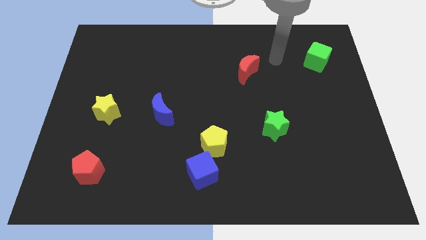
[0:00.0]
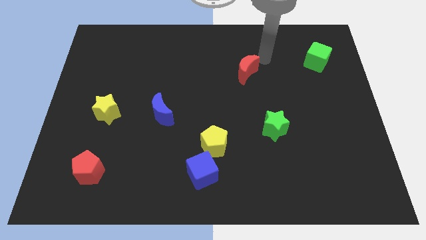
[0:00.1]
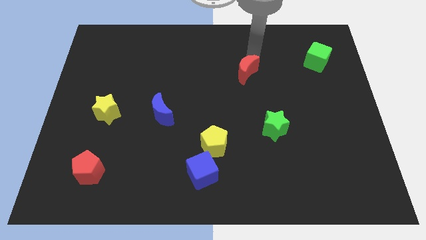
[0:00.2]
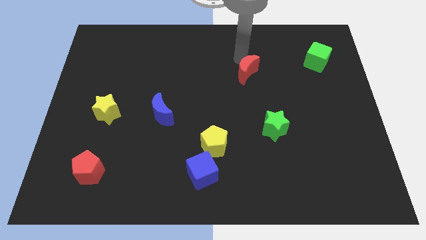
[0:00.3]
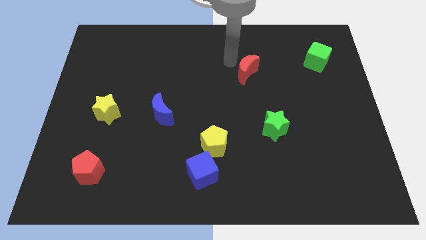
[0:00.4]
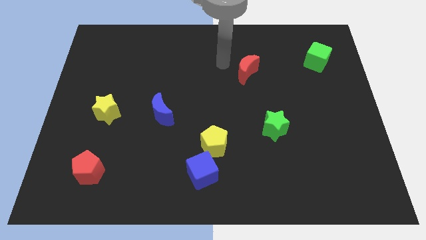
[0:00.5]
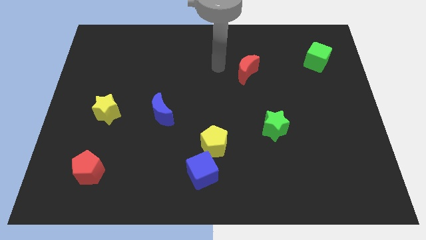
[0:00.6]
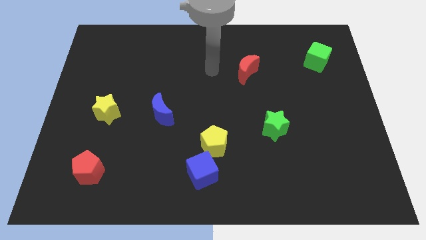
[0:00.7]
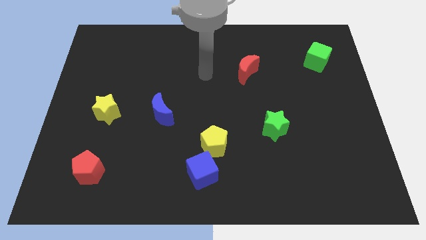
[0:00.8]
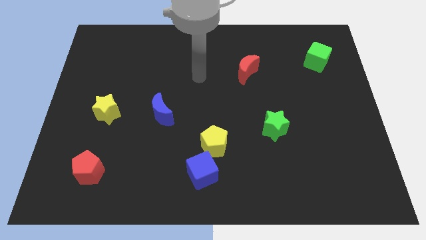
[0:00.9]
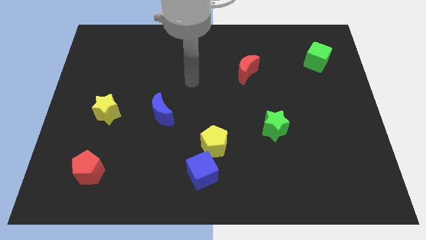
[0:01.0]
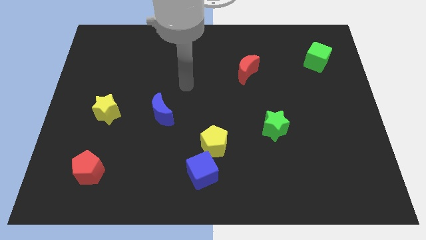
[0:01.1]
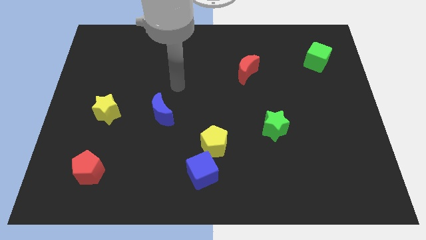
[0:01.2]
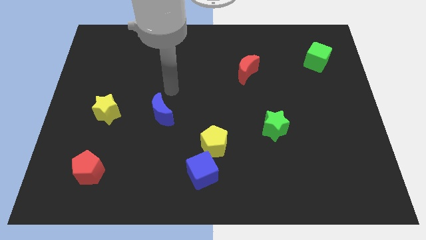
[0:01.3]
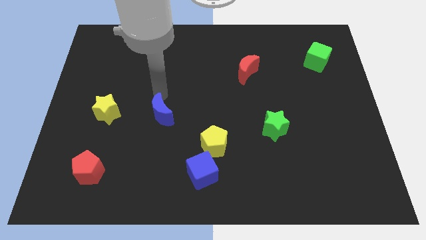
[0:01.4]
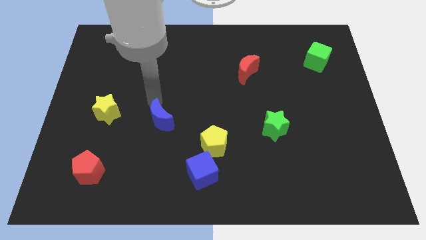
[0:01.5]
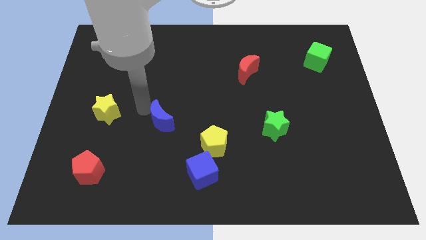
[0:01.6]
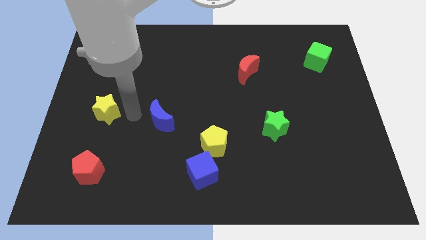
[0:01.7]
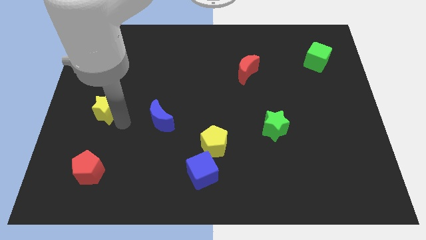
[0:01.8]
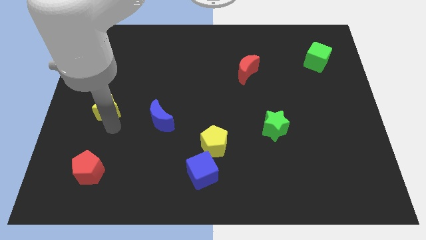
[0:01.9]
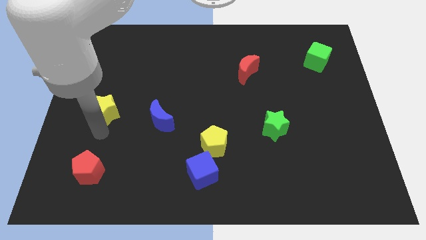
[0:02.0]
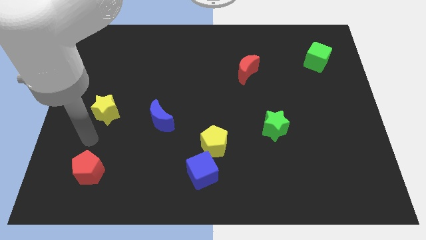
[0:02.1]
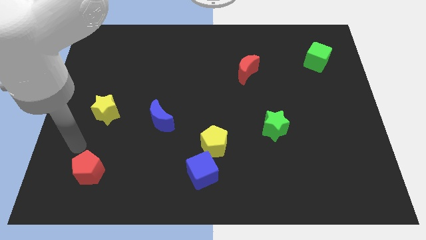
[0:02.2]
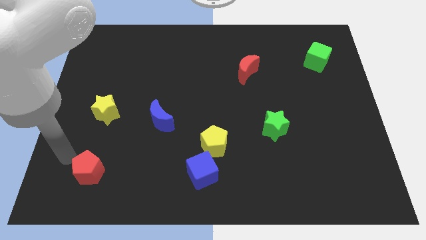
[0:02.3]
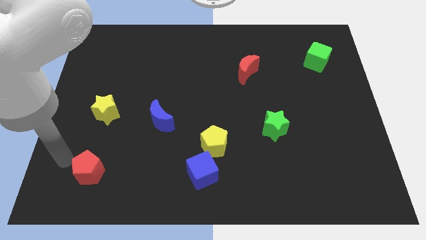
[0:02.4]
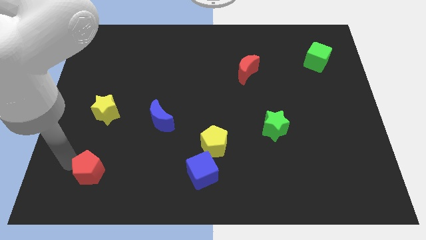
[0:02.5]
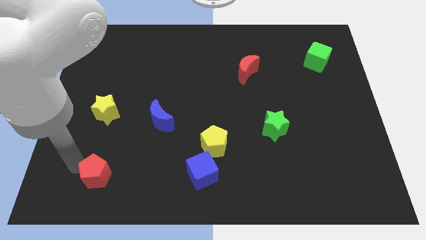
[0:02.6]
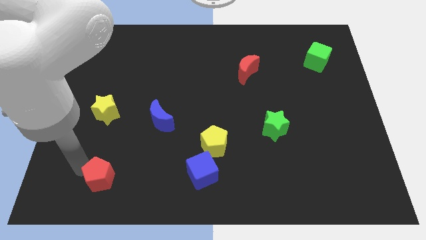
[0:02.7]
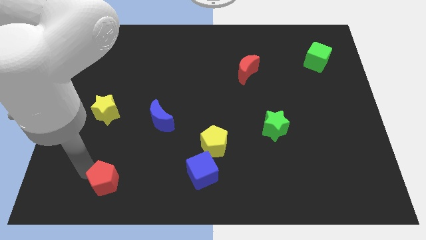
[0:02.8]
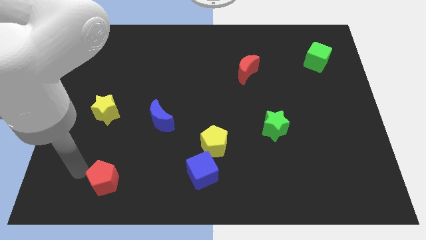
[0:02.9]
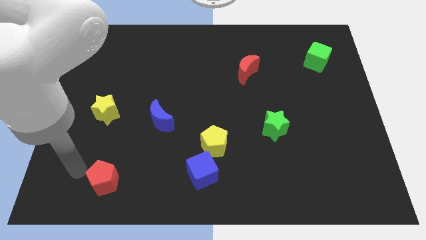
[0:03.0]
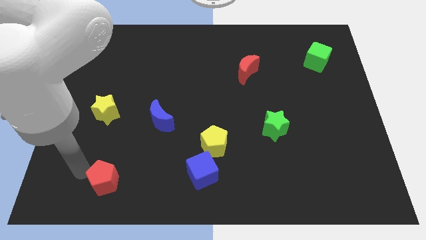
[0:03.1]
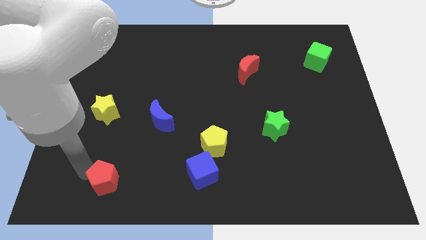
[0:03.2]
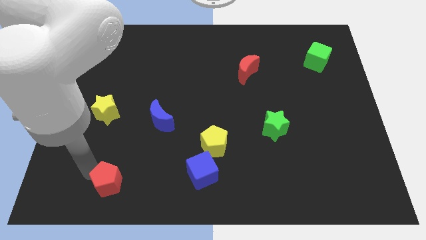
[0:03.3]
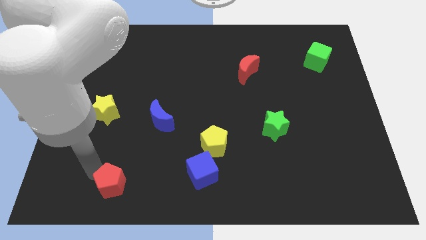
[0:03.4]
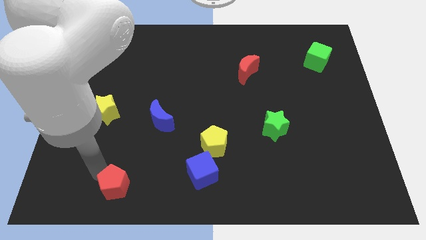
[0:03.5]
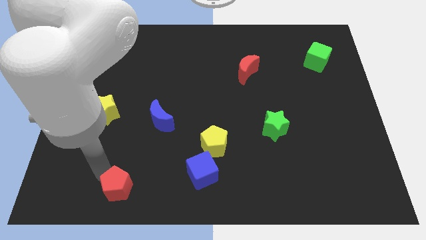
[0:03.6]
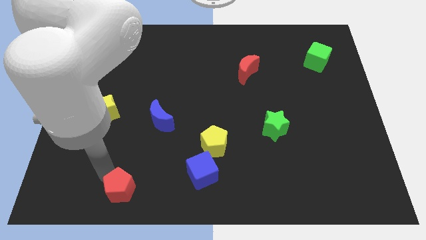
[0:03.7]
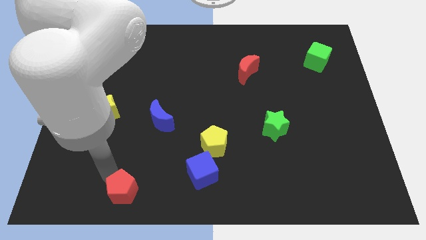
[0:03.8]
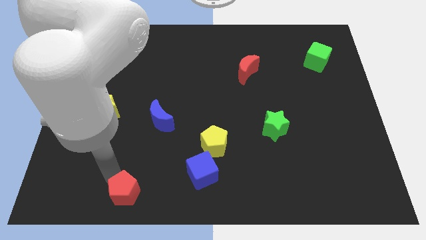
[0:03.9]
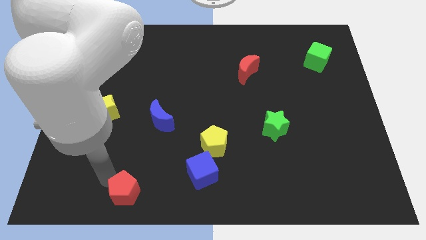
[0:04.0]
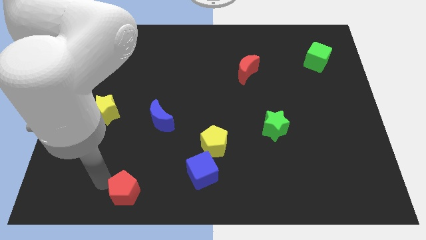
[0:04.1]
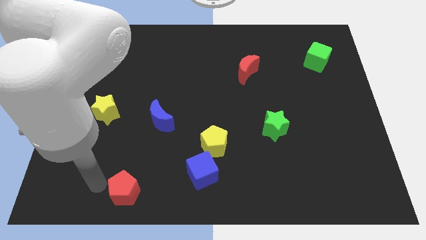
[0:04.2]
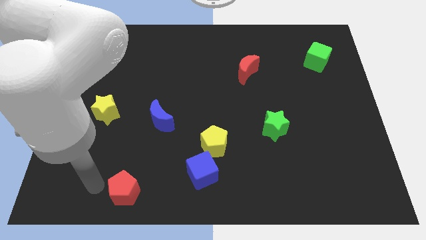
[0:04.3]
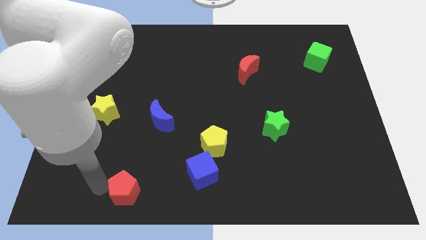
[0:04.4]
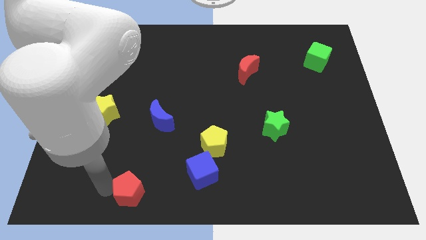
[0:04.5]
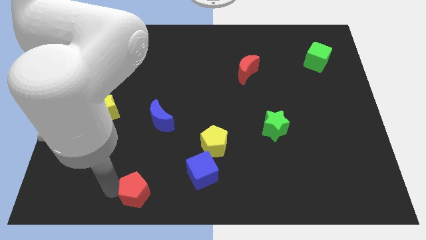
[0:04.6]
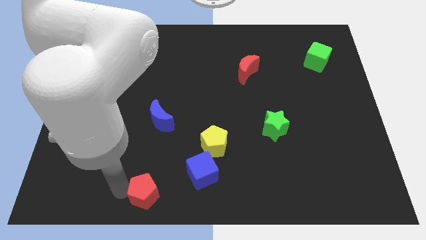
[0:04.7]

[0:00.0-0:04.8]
push the red pentagon to the bottom side

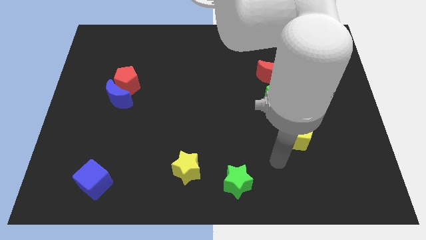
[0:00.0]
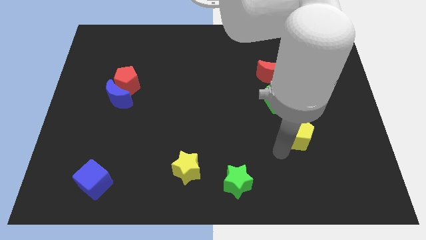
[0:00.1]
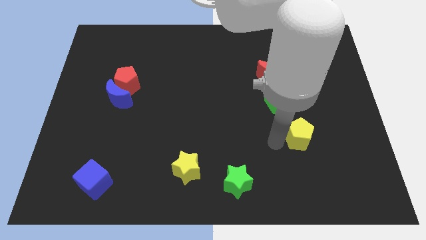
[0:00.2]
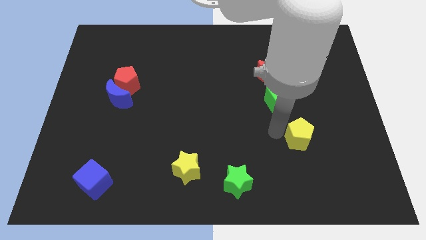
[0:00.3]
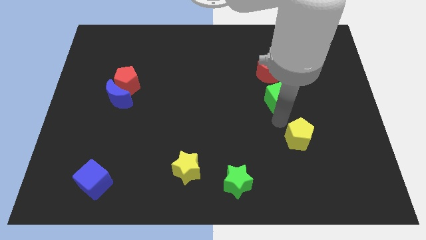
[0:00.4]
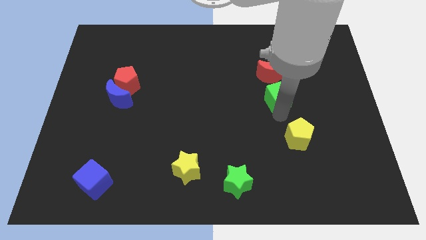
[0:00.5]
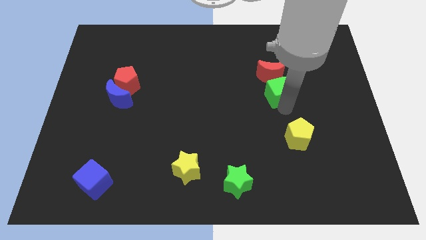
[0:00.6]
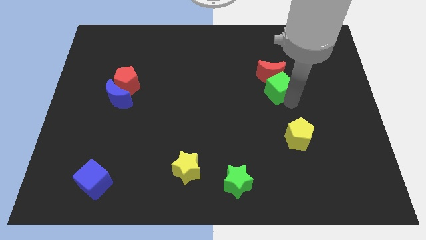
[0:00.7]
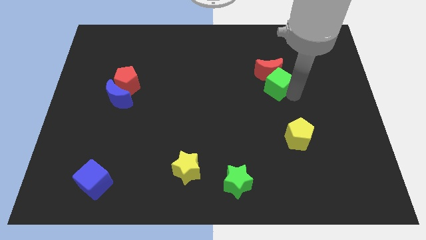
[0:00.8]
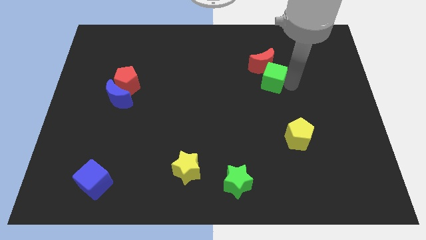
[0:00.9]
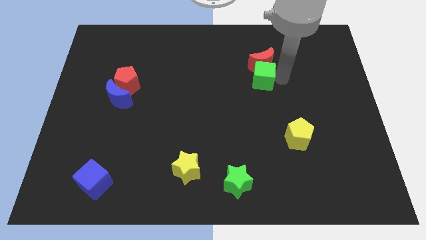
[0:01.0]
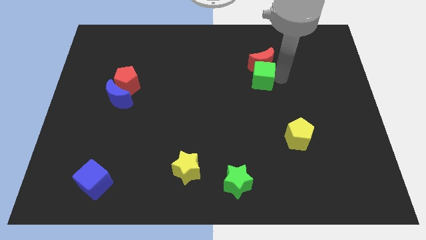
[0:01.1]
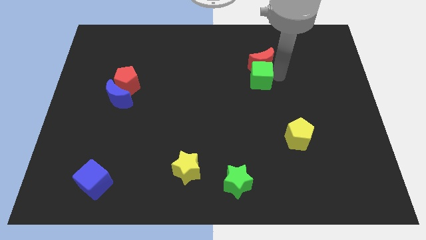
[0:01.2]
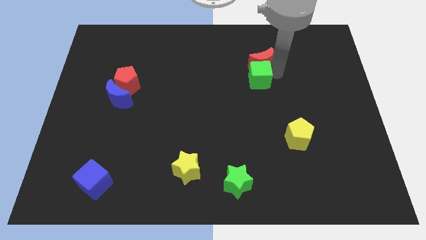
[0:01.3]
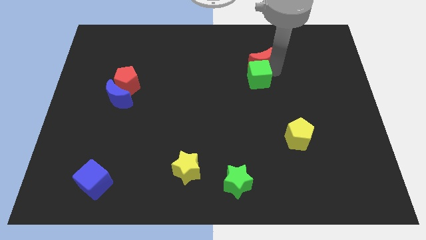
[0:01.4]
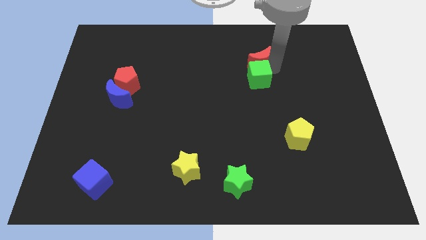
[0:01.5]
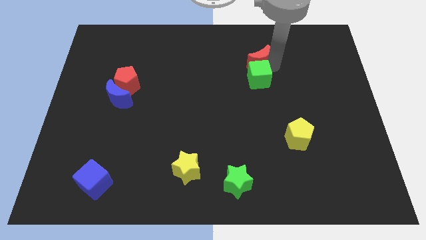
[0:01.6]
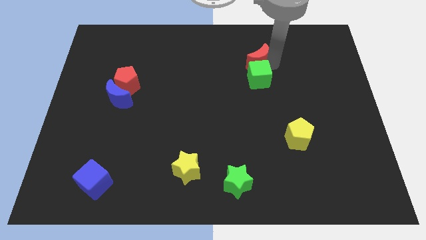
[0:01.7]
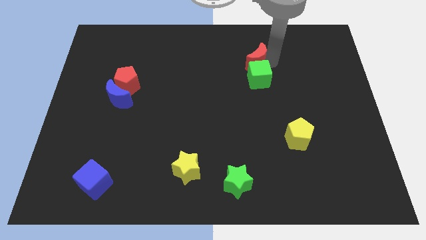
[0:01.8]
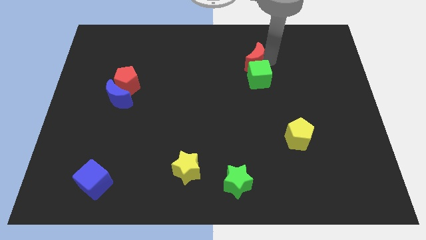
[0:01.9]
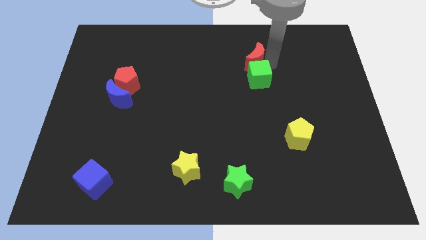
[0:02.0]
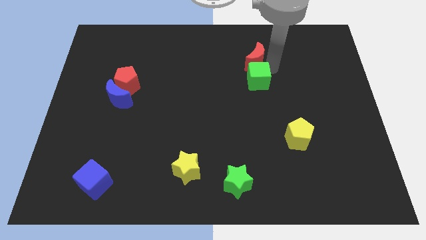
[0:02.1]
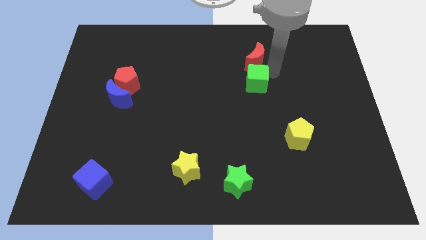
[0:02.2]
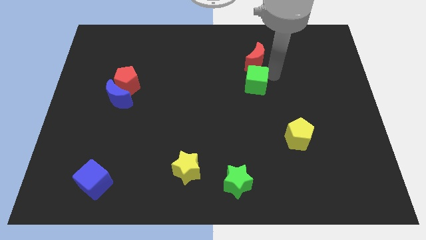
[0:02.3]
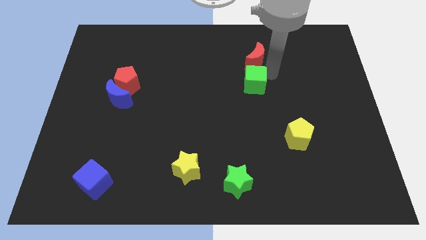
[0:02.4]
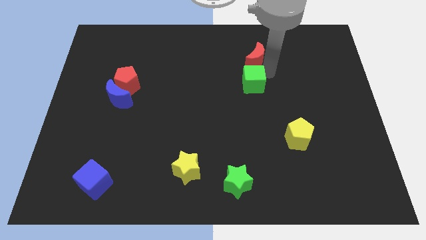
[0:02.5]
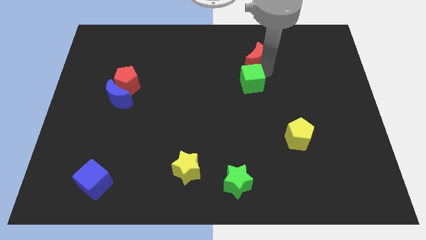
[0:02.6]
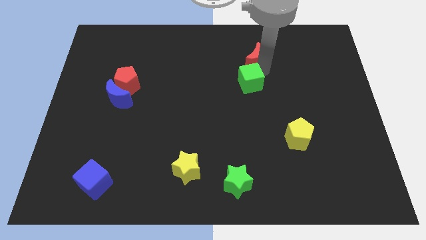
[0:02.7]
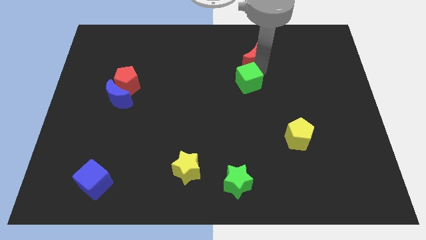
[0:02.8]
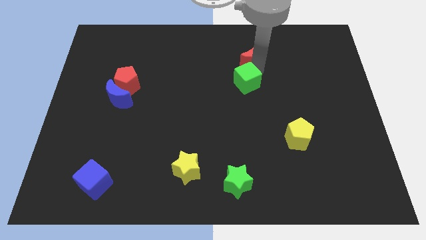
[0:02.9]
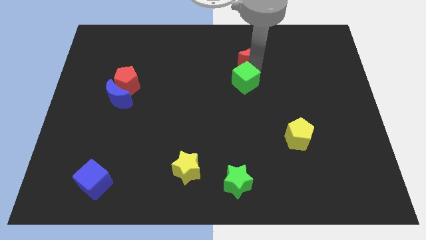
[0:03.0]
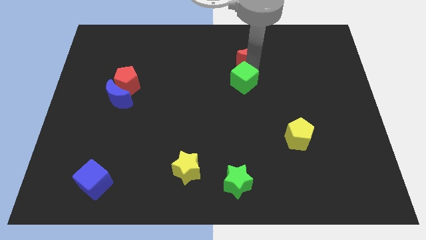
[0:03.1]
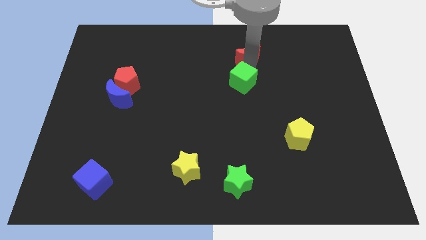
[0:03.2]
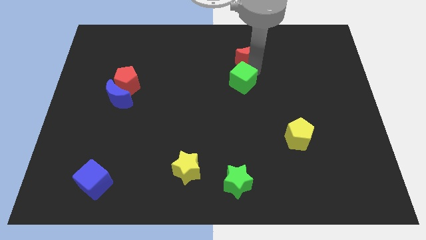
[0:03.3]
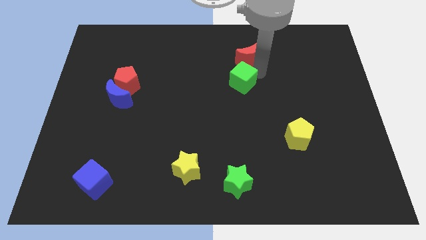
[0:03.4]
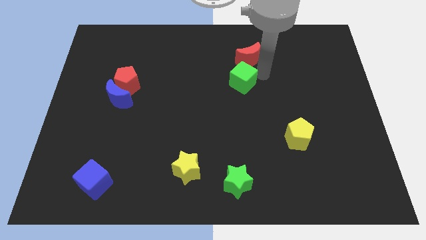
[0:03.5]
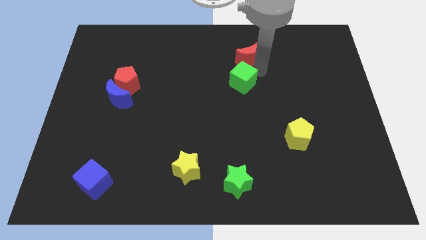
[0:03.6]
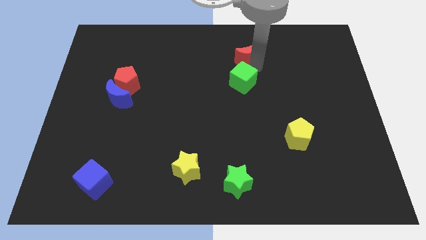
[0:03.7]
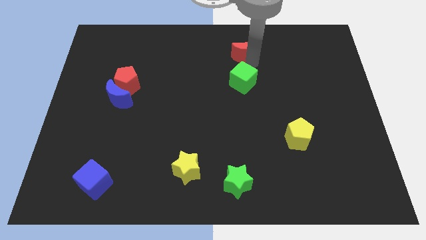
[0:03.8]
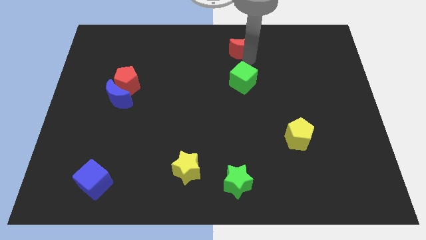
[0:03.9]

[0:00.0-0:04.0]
move the red moon to the top side
